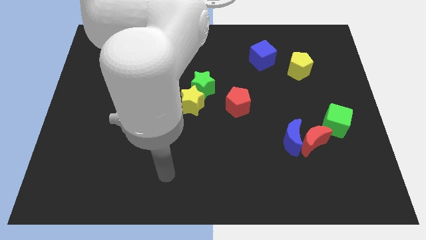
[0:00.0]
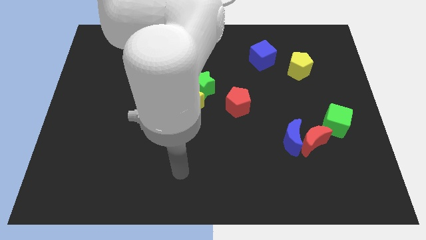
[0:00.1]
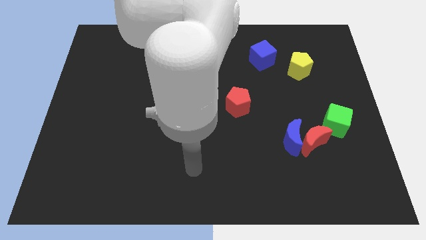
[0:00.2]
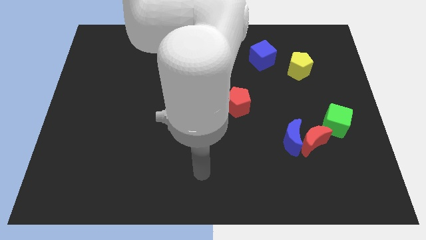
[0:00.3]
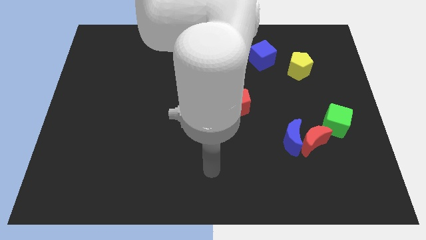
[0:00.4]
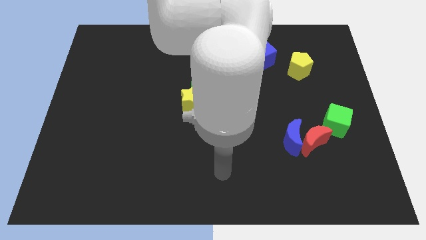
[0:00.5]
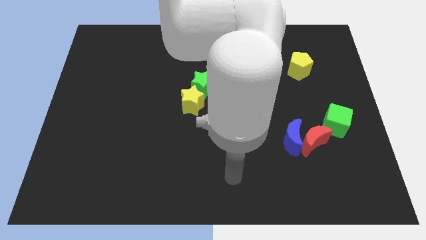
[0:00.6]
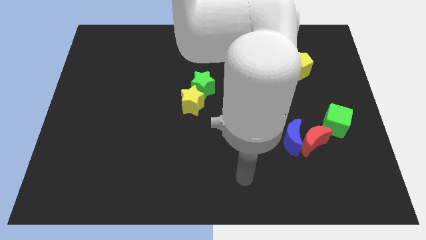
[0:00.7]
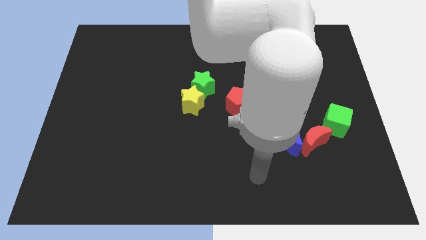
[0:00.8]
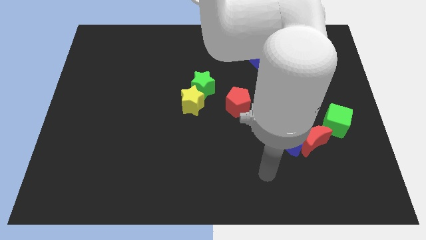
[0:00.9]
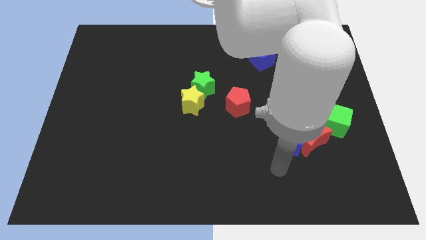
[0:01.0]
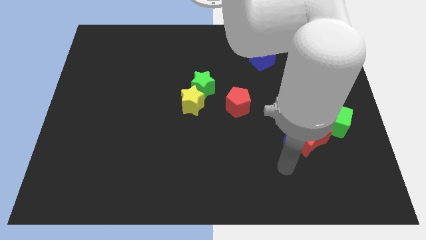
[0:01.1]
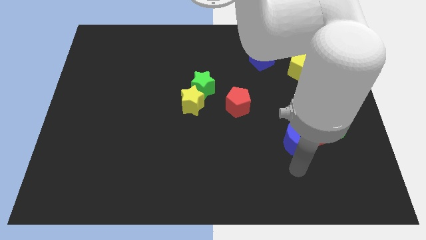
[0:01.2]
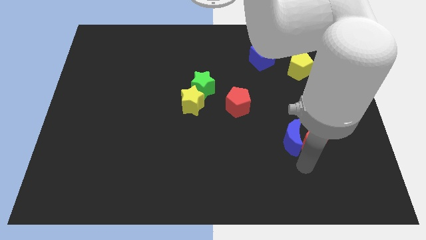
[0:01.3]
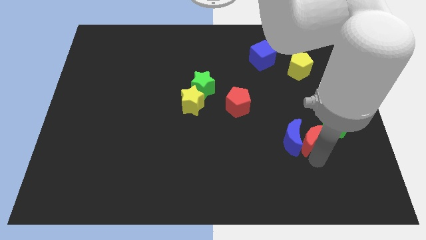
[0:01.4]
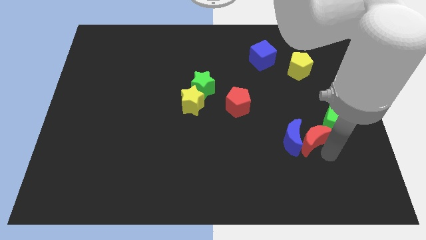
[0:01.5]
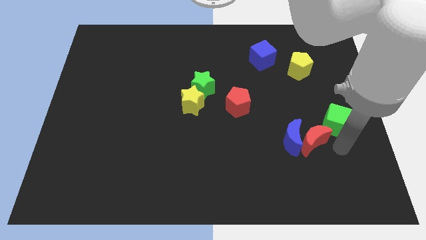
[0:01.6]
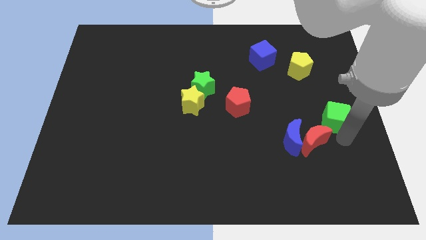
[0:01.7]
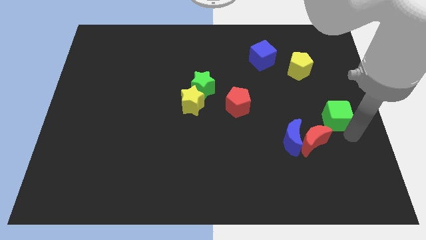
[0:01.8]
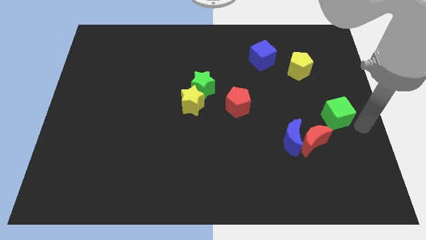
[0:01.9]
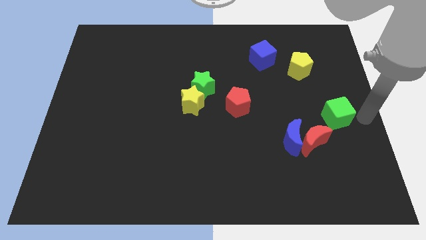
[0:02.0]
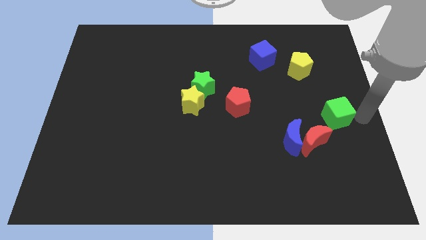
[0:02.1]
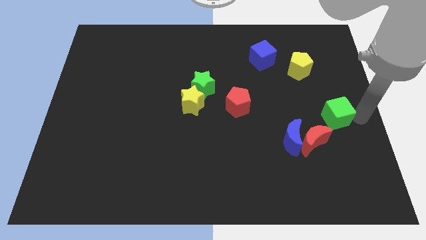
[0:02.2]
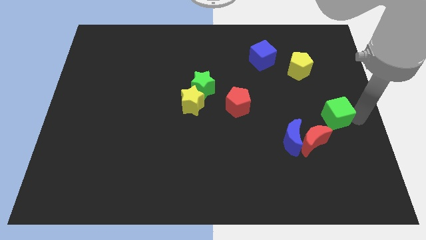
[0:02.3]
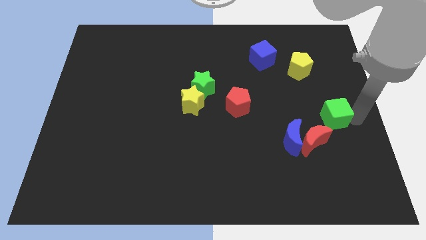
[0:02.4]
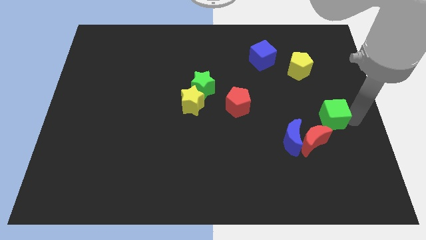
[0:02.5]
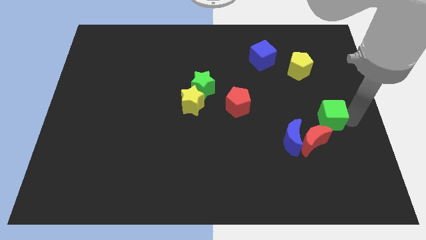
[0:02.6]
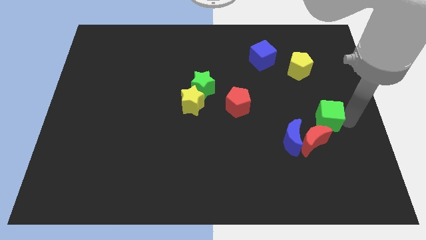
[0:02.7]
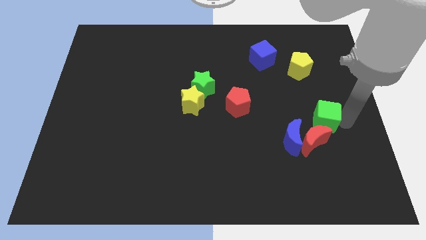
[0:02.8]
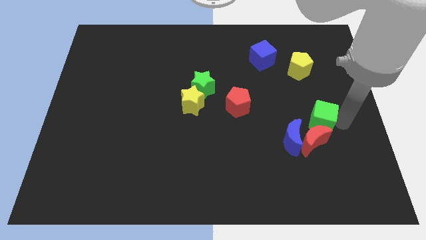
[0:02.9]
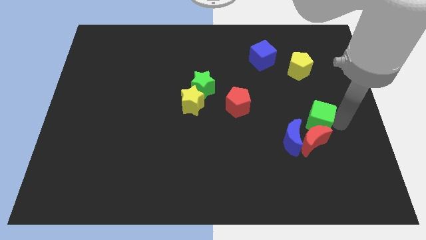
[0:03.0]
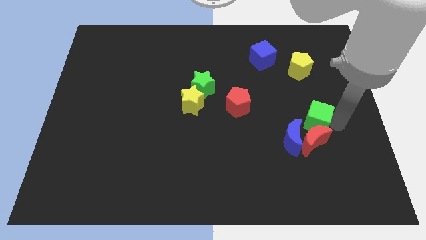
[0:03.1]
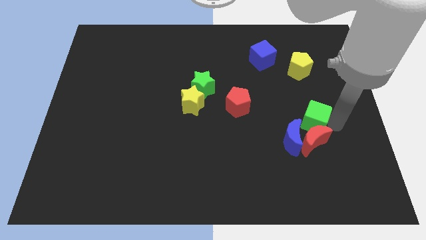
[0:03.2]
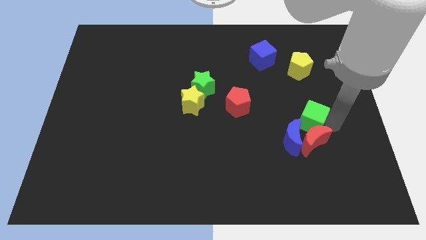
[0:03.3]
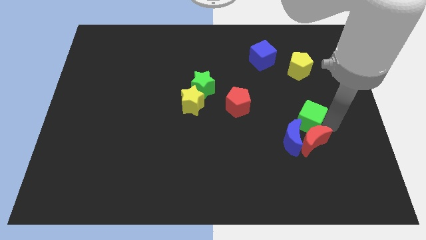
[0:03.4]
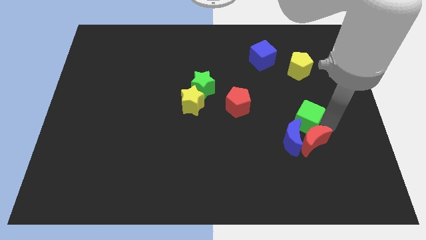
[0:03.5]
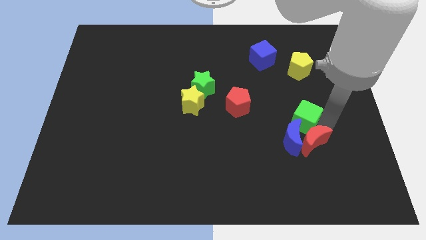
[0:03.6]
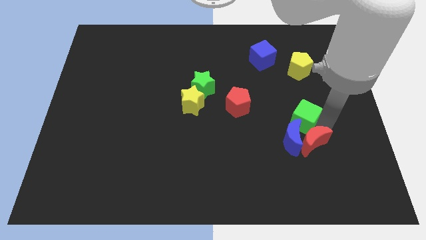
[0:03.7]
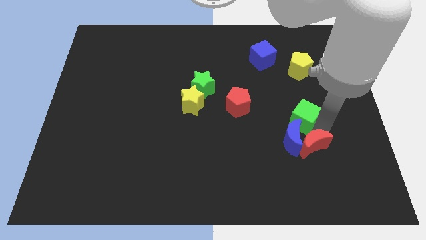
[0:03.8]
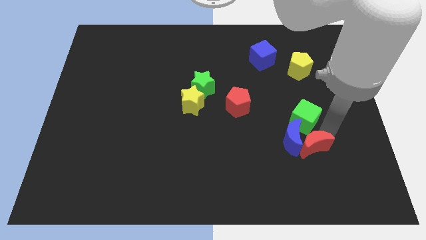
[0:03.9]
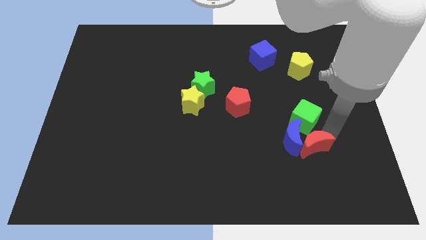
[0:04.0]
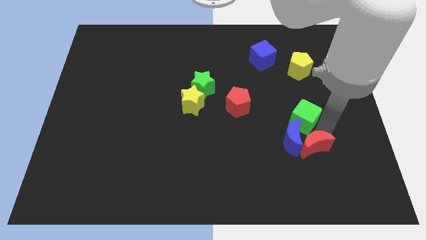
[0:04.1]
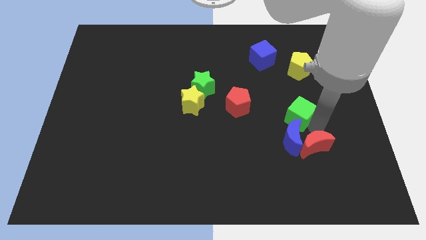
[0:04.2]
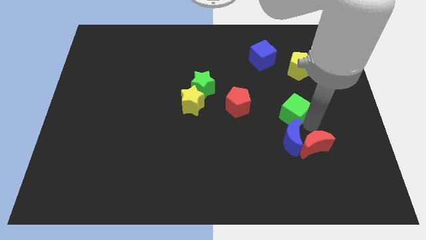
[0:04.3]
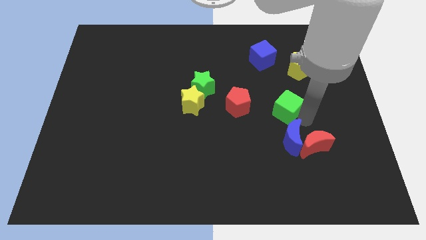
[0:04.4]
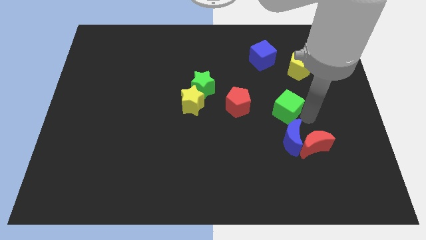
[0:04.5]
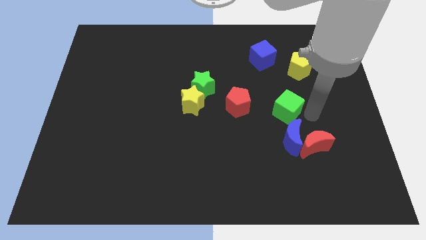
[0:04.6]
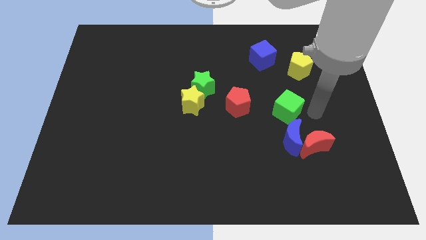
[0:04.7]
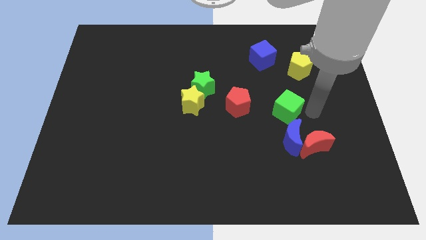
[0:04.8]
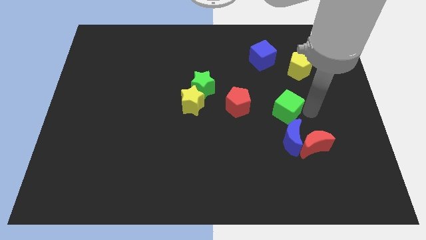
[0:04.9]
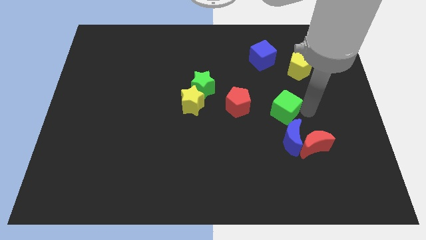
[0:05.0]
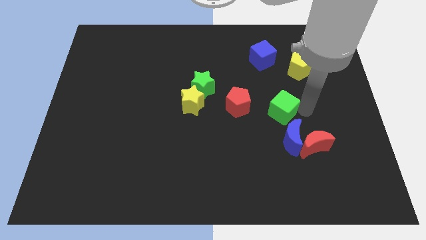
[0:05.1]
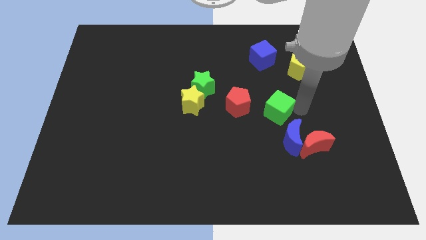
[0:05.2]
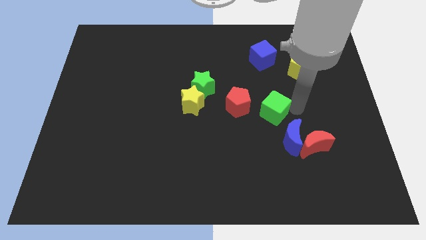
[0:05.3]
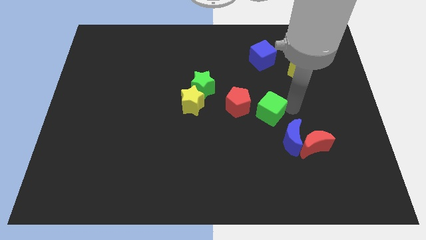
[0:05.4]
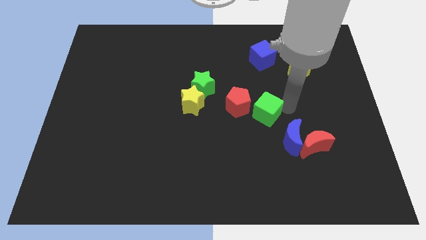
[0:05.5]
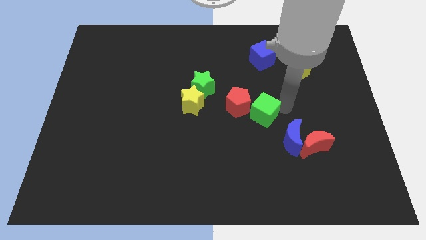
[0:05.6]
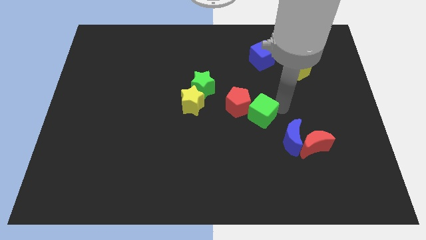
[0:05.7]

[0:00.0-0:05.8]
put the green cube next to the red pentagon

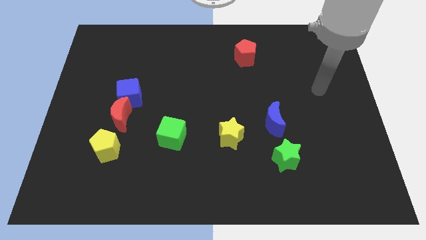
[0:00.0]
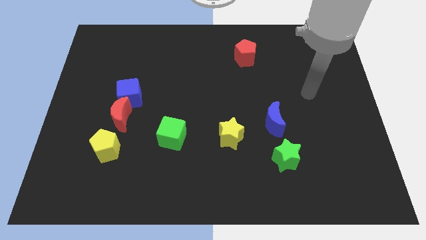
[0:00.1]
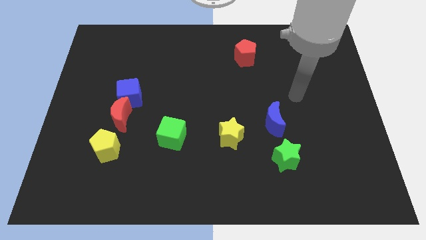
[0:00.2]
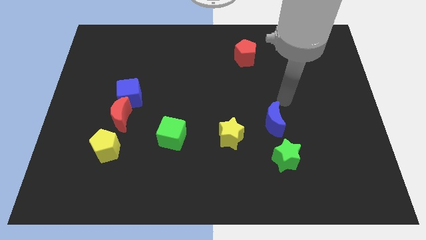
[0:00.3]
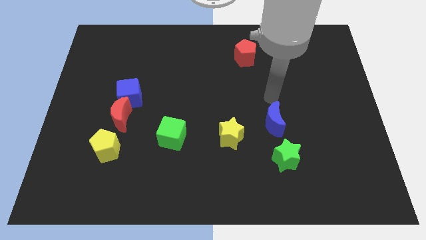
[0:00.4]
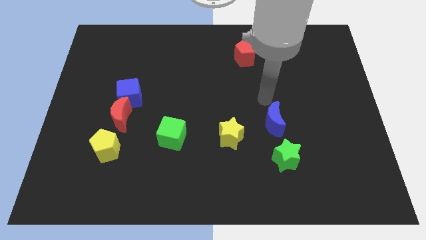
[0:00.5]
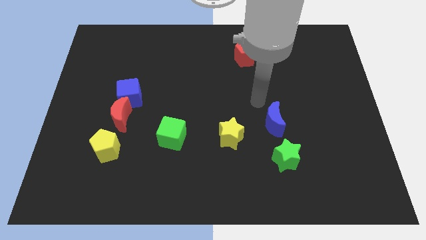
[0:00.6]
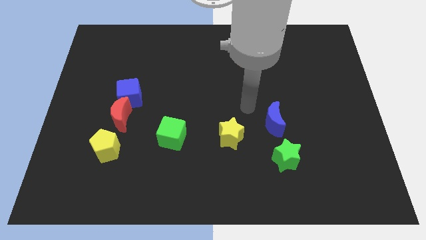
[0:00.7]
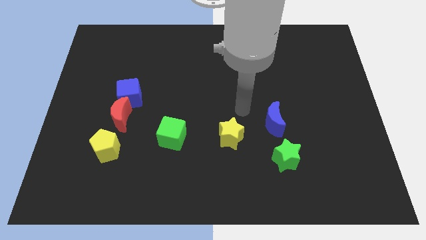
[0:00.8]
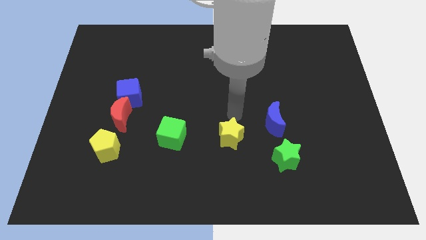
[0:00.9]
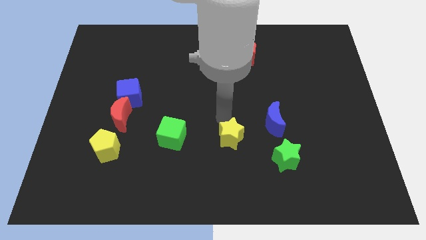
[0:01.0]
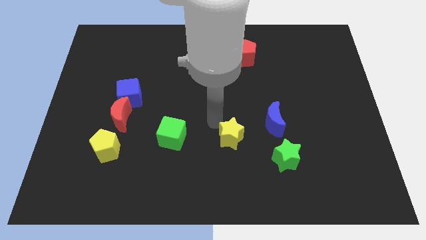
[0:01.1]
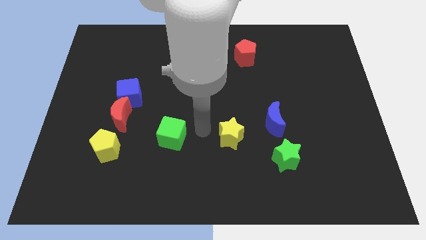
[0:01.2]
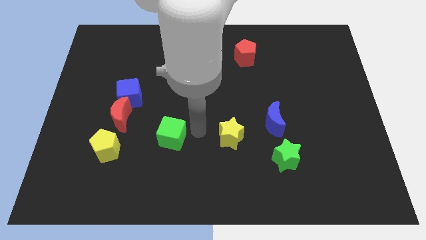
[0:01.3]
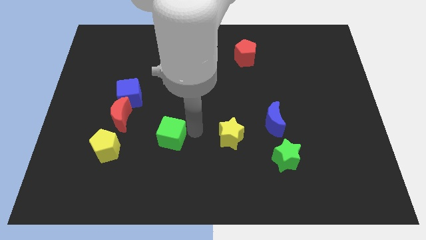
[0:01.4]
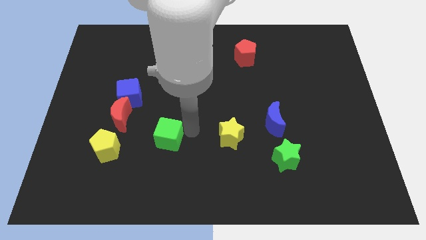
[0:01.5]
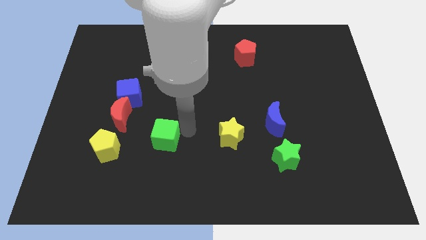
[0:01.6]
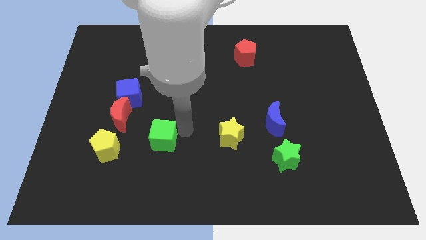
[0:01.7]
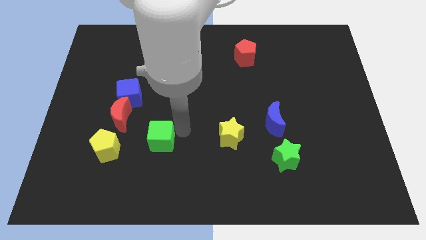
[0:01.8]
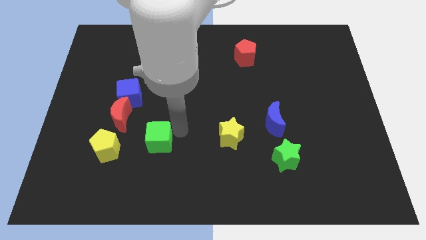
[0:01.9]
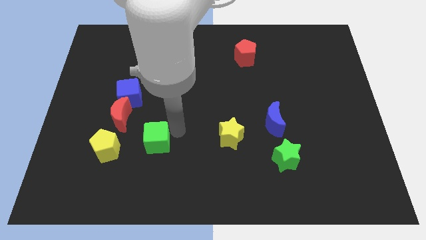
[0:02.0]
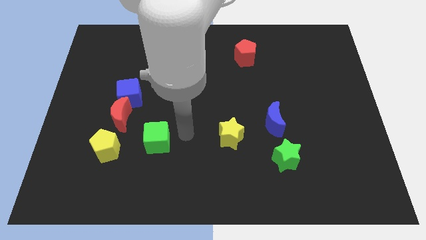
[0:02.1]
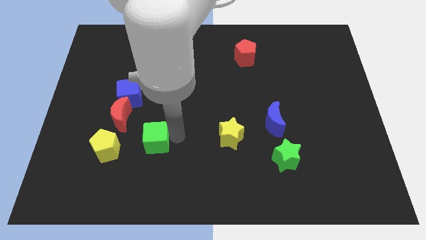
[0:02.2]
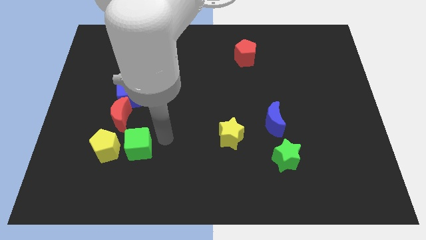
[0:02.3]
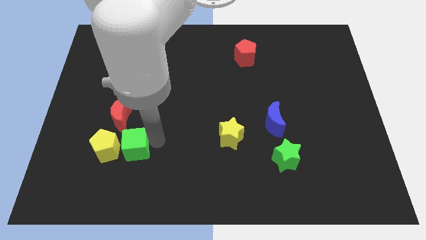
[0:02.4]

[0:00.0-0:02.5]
move the green cube close to the yellow pentagon
